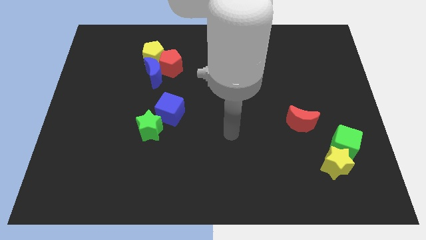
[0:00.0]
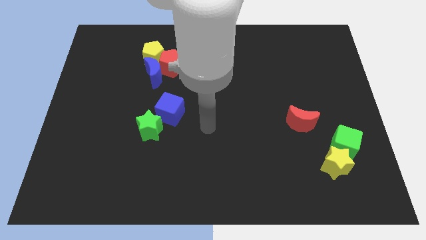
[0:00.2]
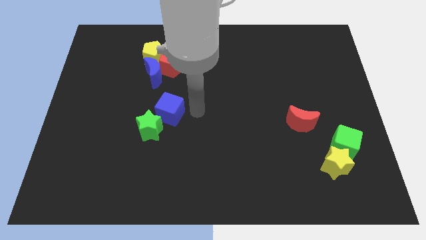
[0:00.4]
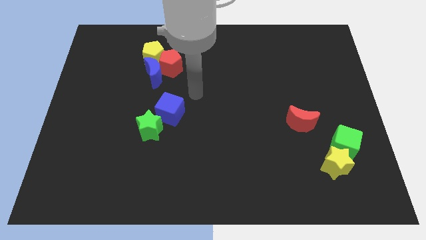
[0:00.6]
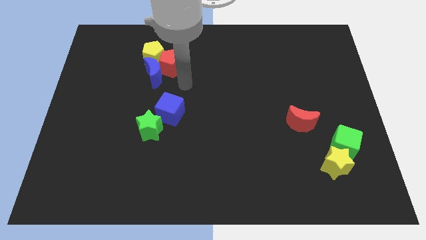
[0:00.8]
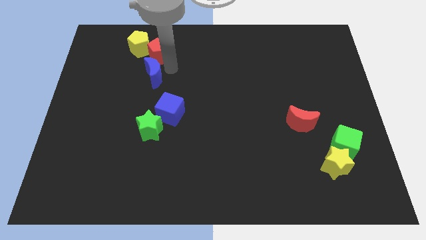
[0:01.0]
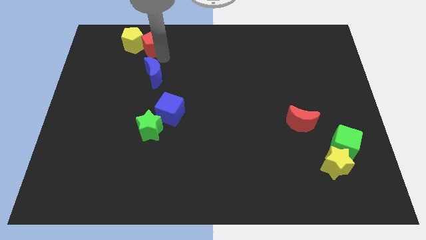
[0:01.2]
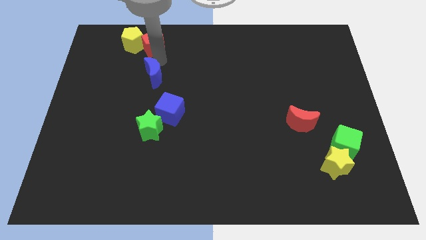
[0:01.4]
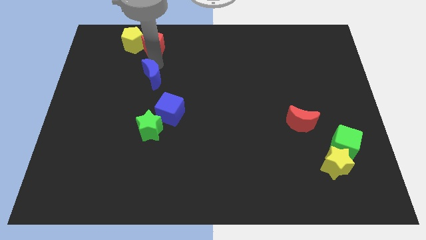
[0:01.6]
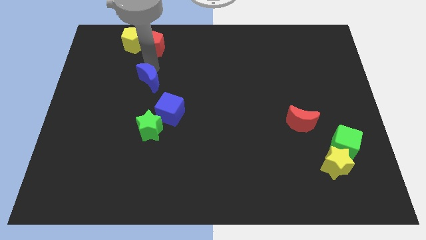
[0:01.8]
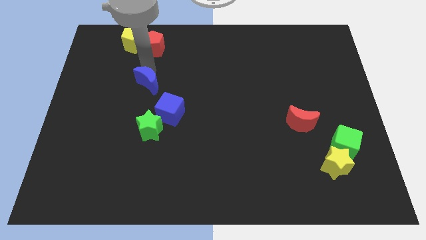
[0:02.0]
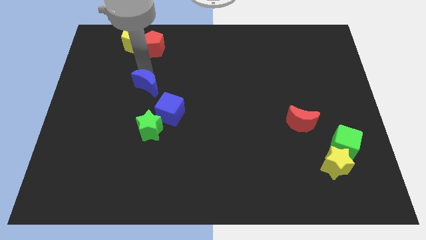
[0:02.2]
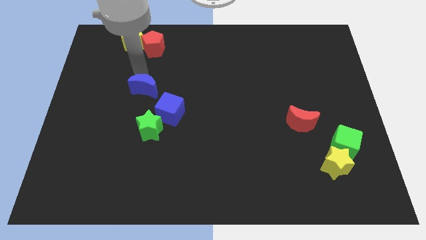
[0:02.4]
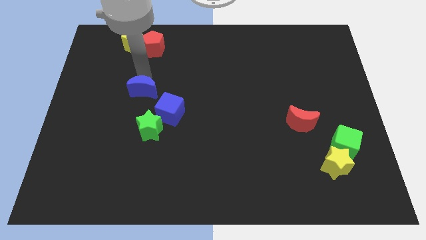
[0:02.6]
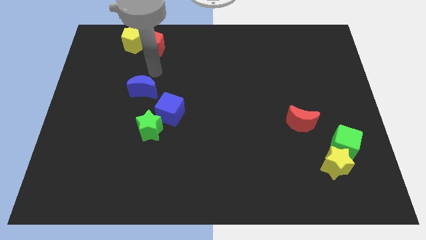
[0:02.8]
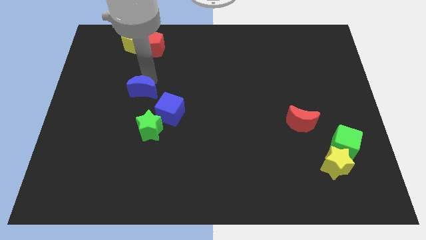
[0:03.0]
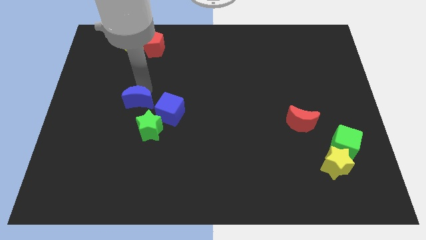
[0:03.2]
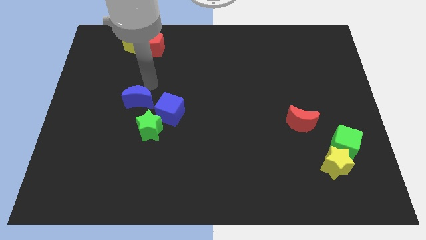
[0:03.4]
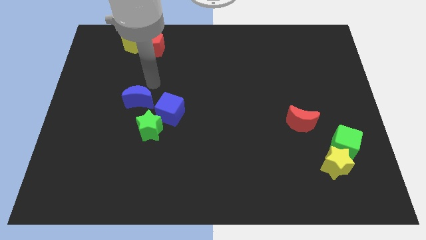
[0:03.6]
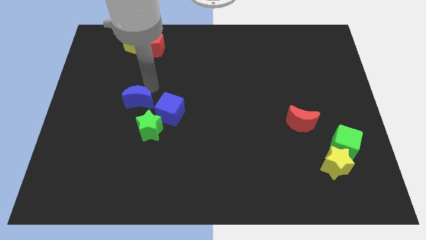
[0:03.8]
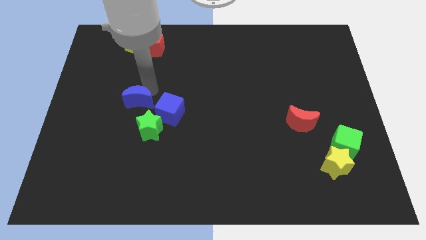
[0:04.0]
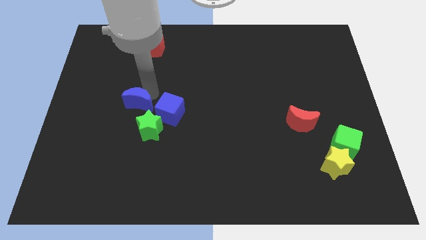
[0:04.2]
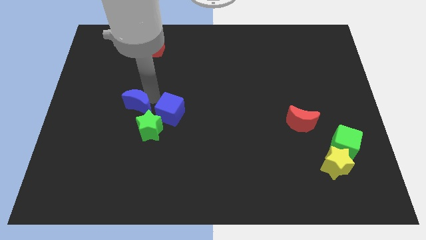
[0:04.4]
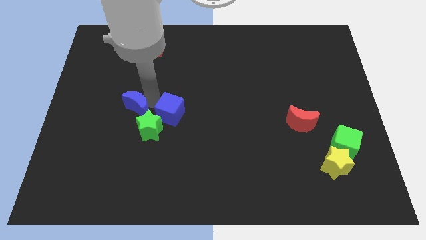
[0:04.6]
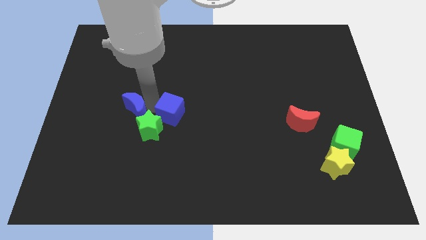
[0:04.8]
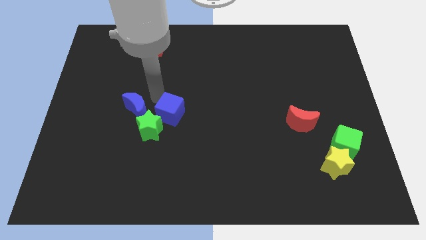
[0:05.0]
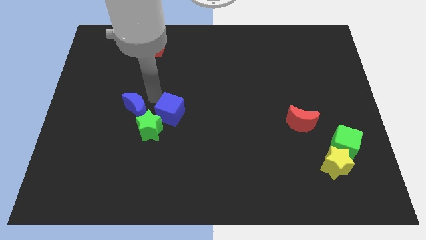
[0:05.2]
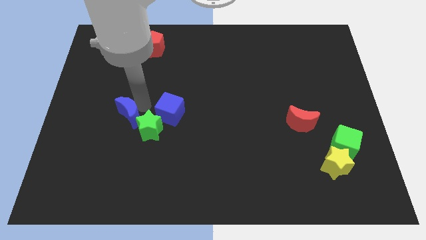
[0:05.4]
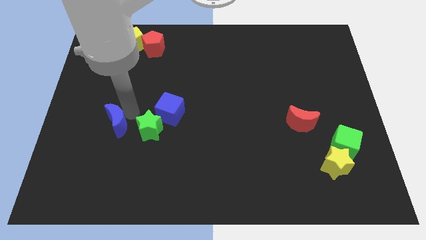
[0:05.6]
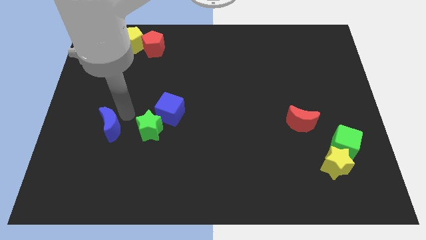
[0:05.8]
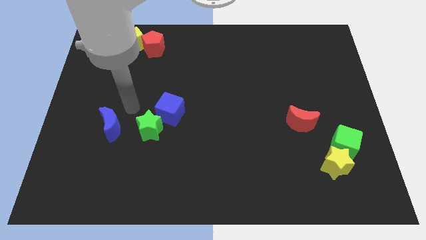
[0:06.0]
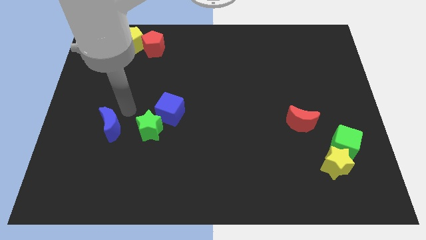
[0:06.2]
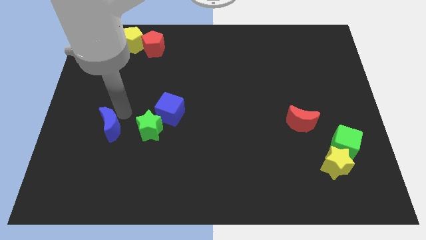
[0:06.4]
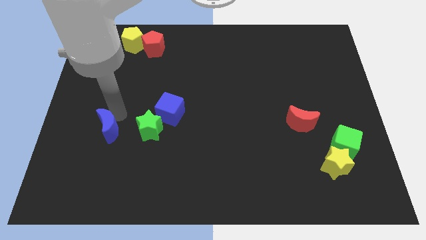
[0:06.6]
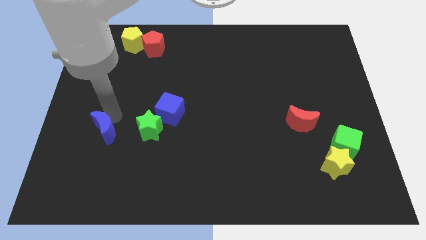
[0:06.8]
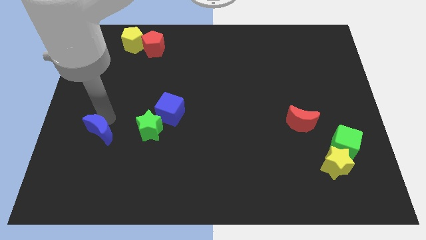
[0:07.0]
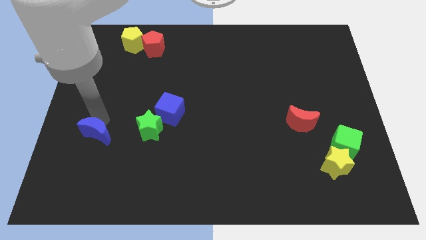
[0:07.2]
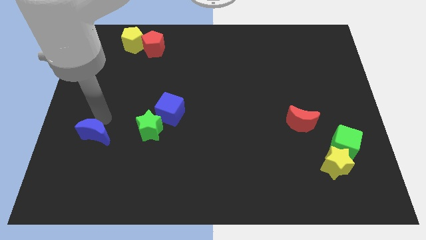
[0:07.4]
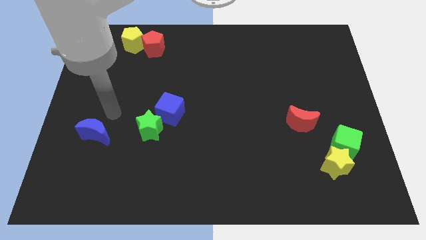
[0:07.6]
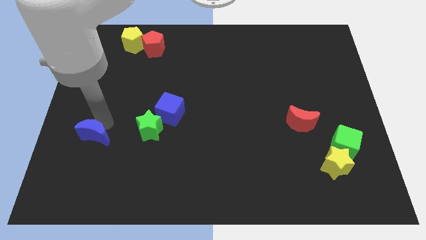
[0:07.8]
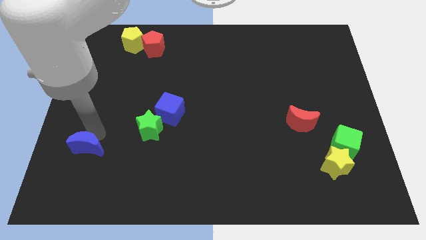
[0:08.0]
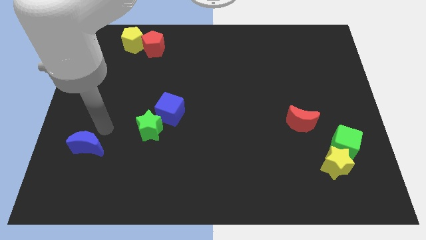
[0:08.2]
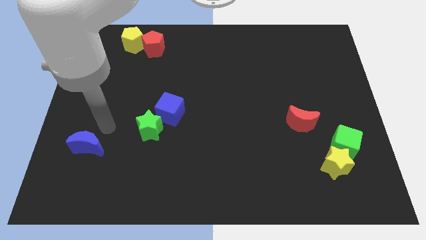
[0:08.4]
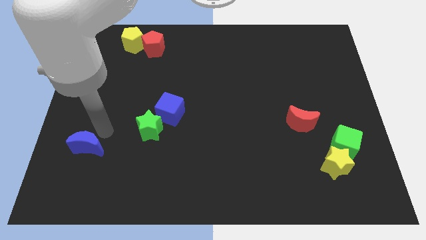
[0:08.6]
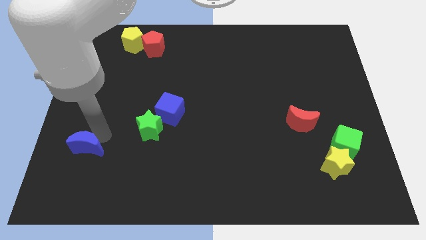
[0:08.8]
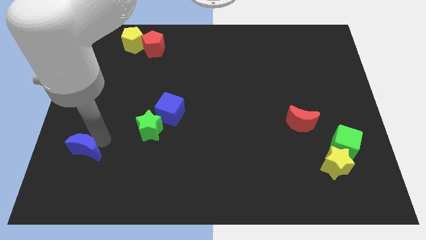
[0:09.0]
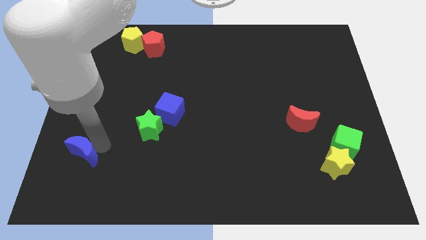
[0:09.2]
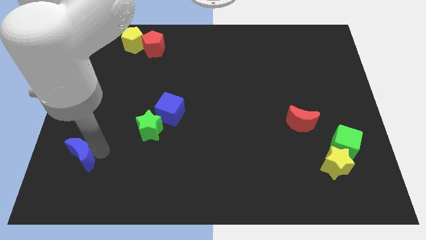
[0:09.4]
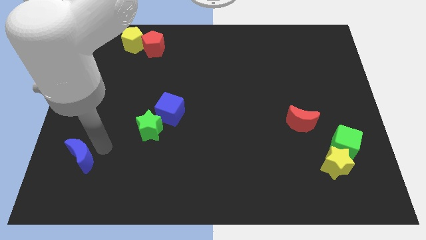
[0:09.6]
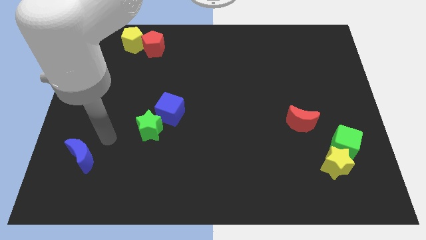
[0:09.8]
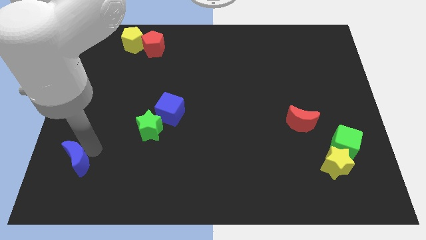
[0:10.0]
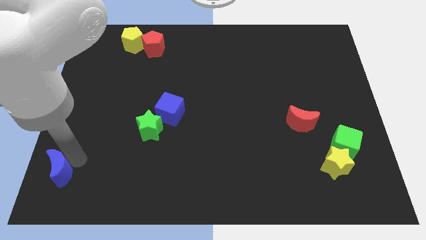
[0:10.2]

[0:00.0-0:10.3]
push the blue moon to the bottom left corner
